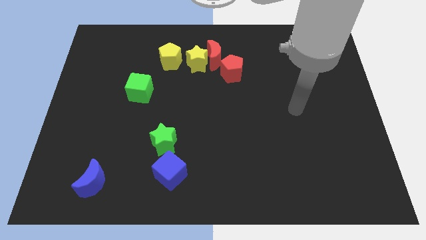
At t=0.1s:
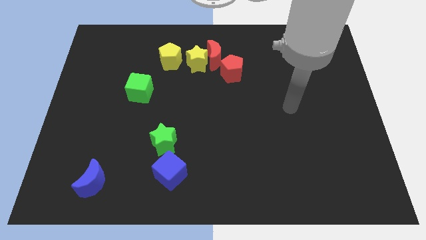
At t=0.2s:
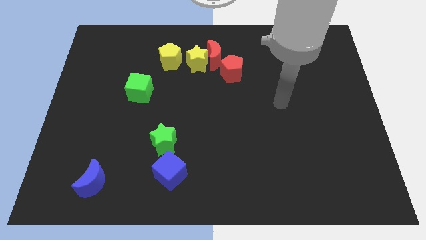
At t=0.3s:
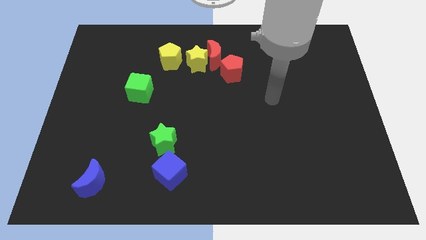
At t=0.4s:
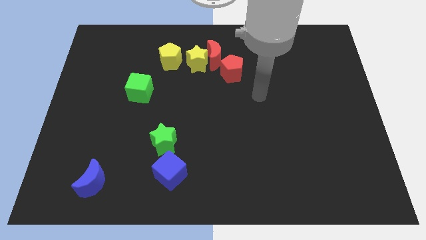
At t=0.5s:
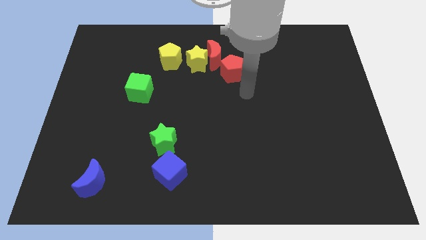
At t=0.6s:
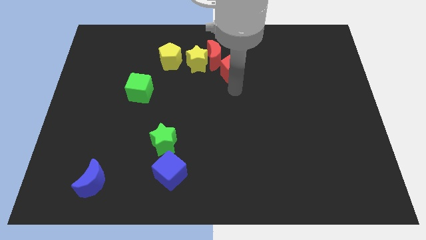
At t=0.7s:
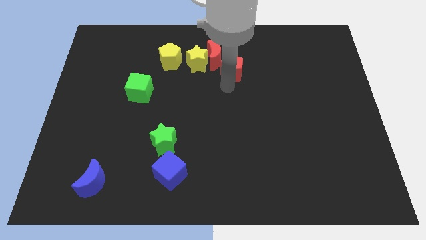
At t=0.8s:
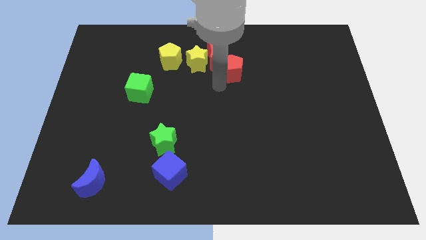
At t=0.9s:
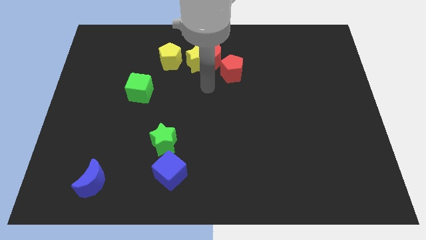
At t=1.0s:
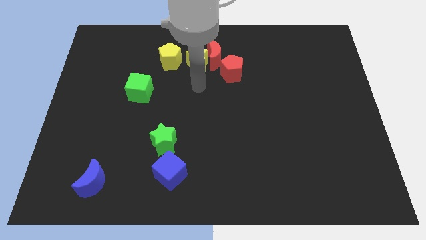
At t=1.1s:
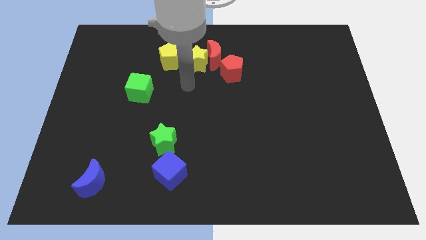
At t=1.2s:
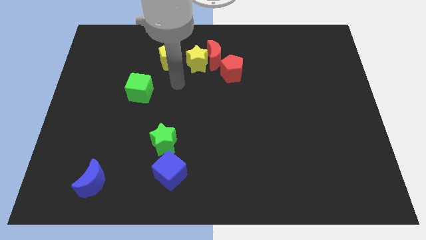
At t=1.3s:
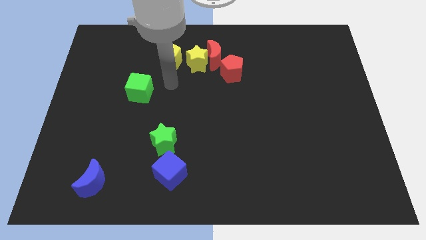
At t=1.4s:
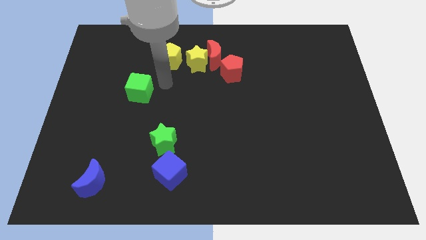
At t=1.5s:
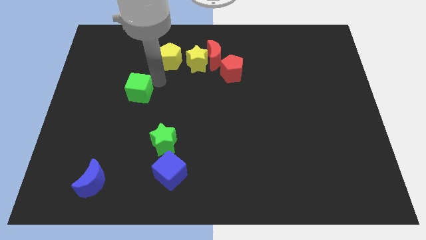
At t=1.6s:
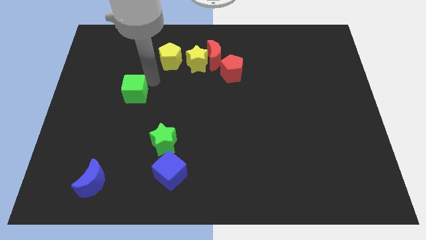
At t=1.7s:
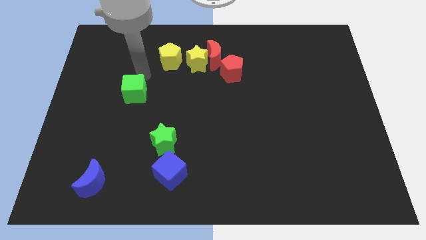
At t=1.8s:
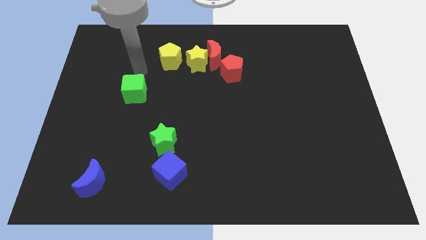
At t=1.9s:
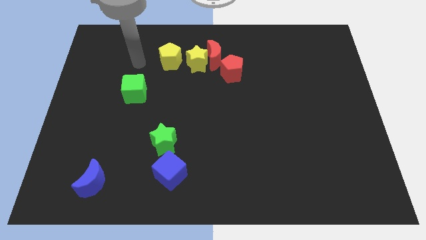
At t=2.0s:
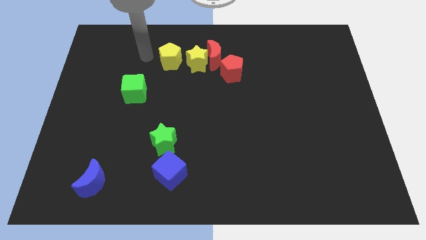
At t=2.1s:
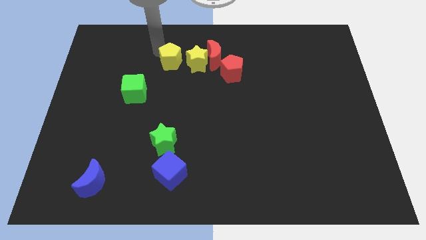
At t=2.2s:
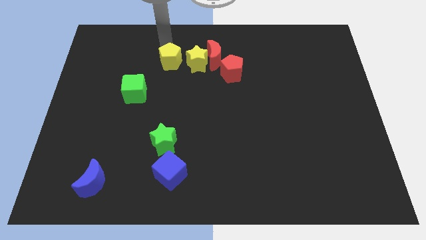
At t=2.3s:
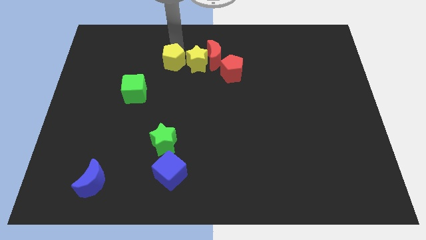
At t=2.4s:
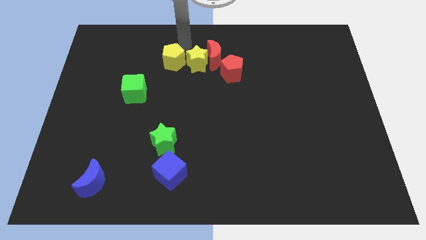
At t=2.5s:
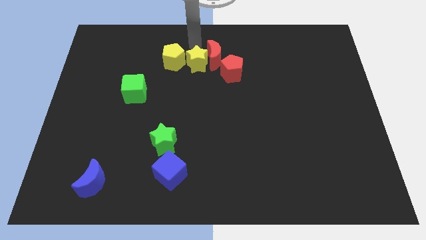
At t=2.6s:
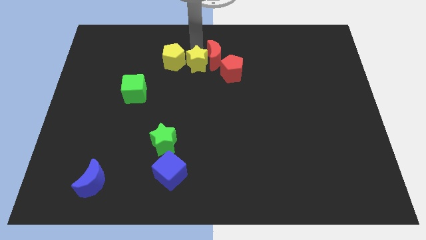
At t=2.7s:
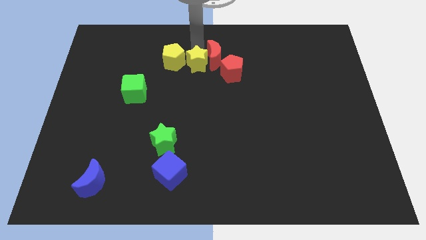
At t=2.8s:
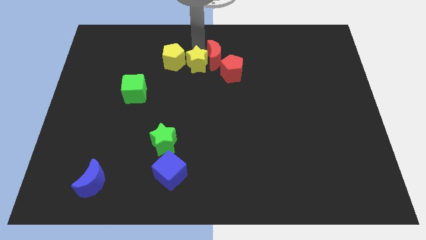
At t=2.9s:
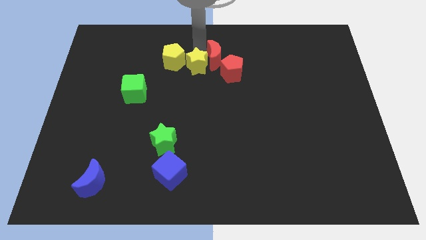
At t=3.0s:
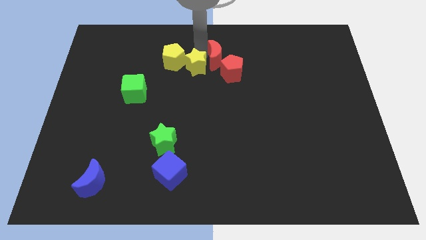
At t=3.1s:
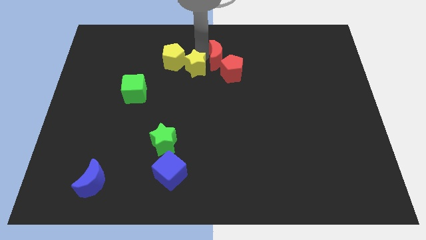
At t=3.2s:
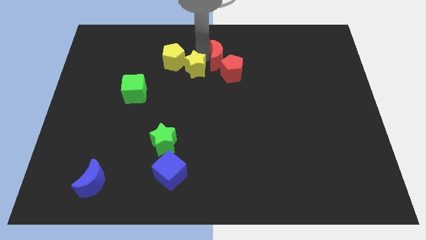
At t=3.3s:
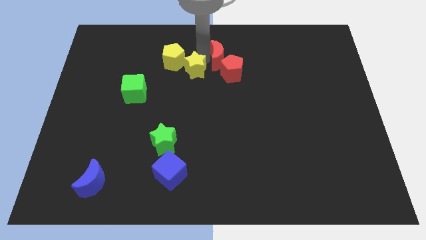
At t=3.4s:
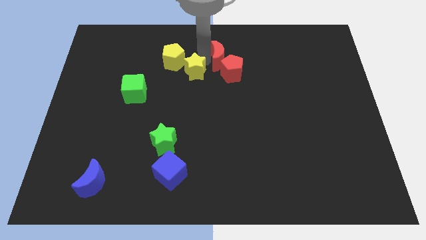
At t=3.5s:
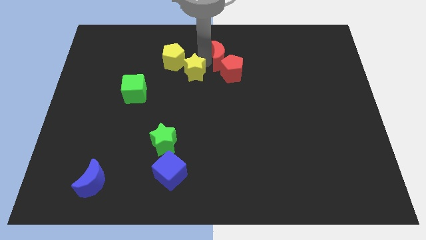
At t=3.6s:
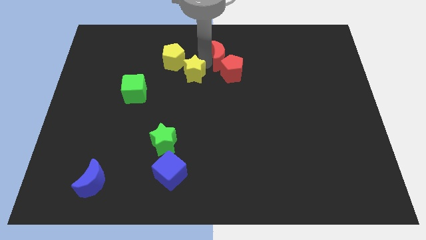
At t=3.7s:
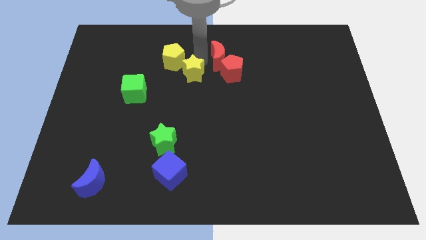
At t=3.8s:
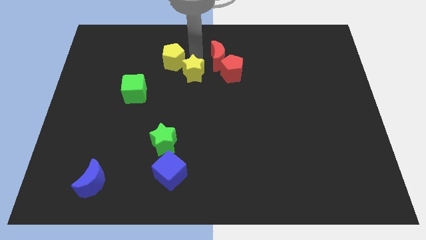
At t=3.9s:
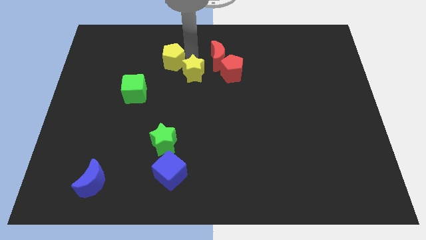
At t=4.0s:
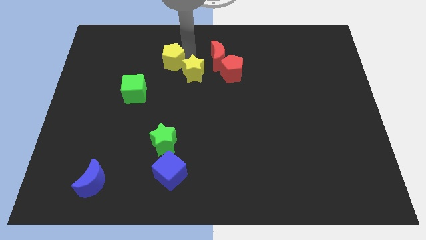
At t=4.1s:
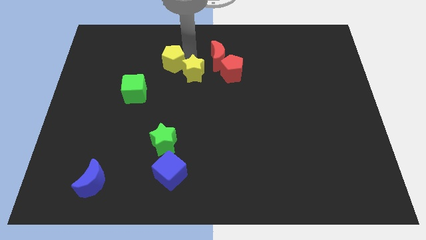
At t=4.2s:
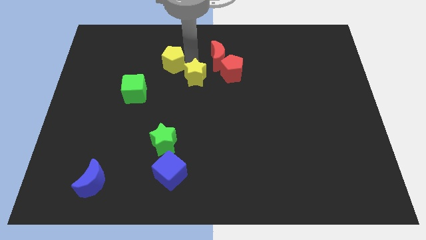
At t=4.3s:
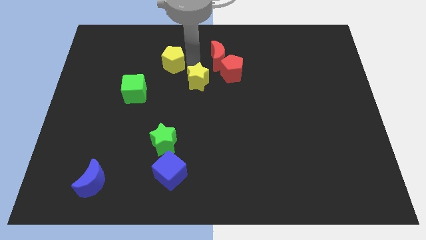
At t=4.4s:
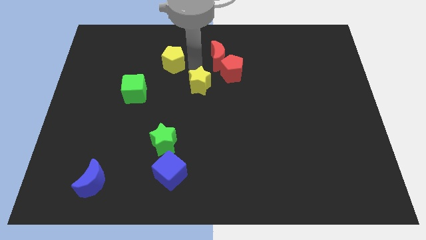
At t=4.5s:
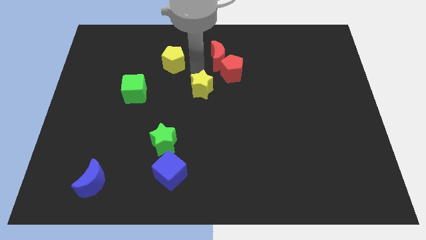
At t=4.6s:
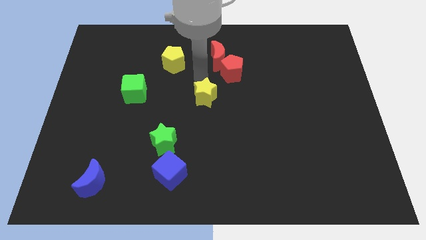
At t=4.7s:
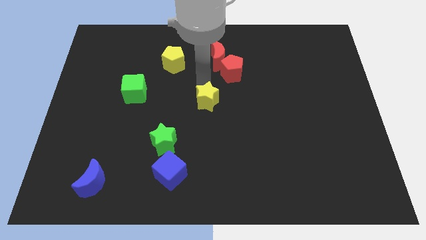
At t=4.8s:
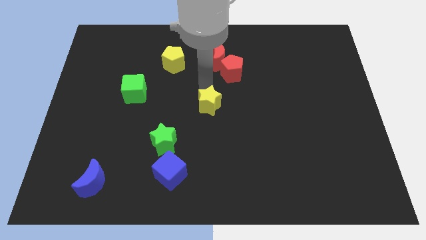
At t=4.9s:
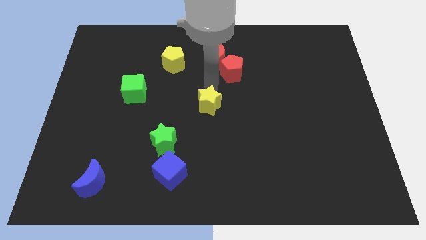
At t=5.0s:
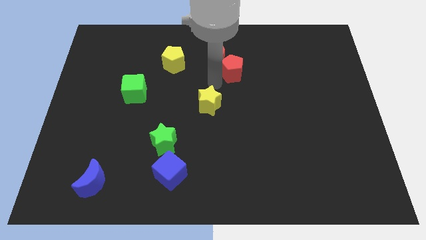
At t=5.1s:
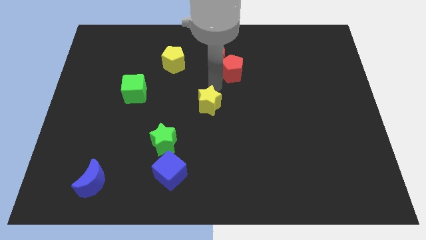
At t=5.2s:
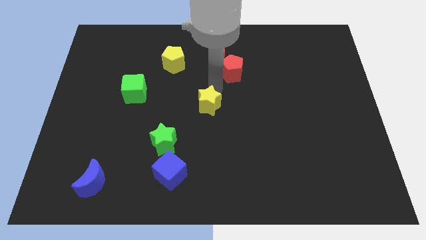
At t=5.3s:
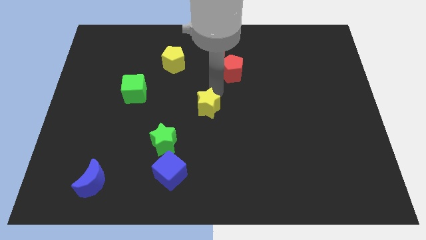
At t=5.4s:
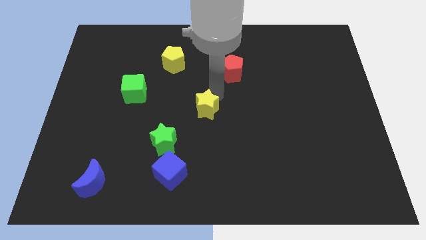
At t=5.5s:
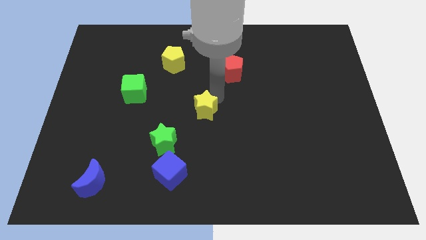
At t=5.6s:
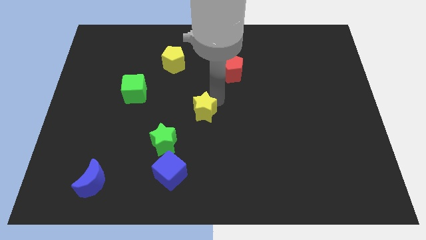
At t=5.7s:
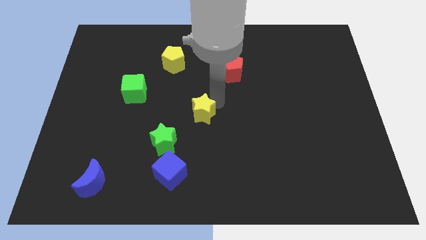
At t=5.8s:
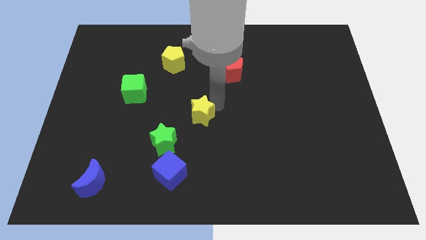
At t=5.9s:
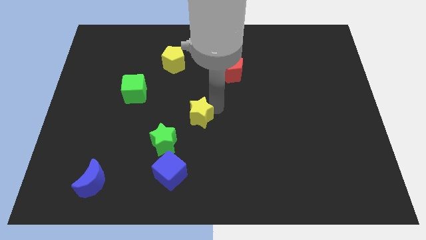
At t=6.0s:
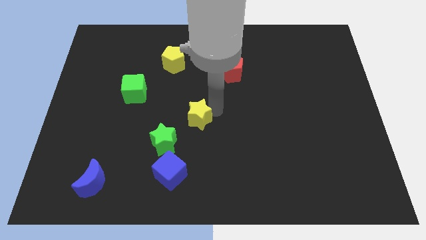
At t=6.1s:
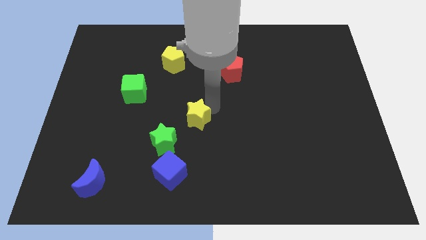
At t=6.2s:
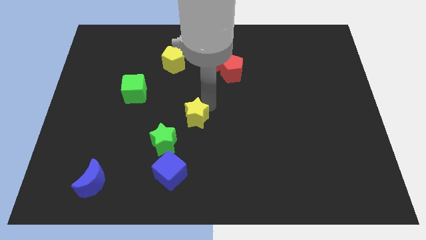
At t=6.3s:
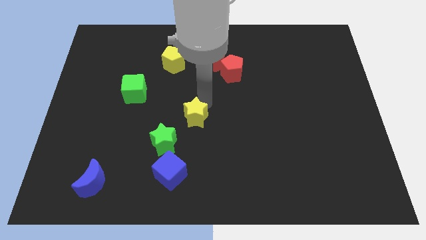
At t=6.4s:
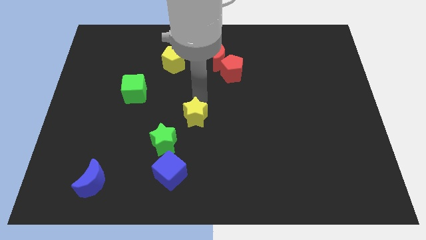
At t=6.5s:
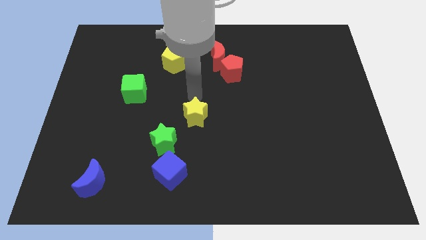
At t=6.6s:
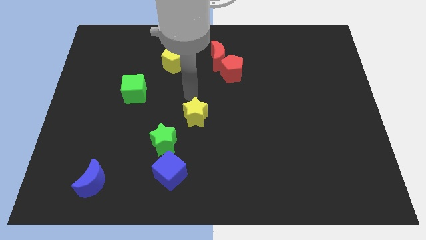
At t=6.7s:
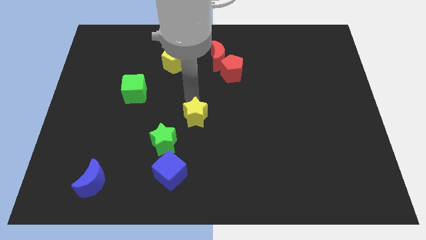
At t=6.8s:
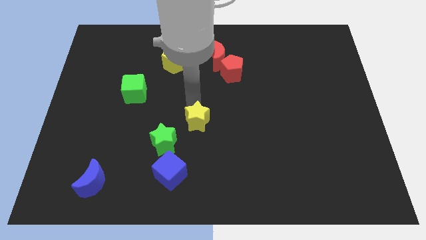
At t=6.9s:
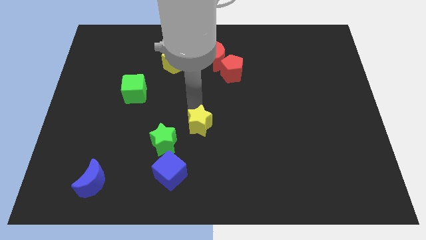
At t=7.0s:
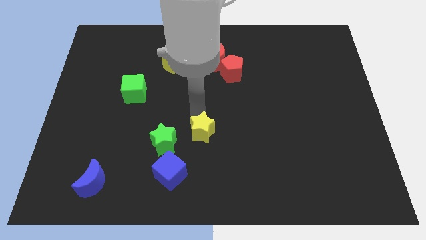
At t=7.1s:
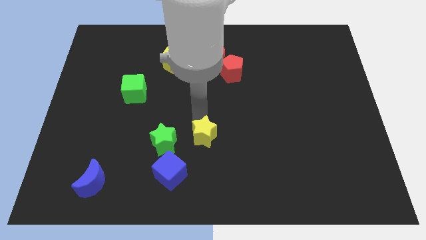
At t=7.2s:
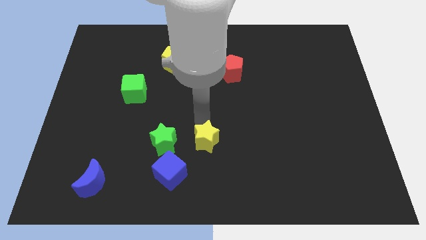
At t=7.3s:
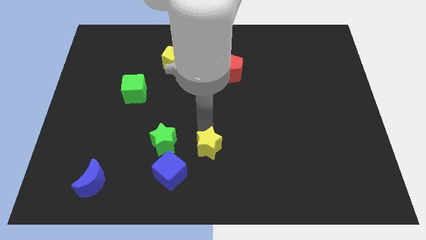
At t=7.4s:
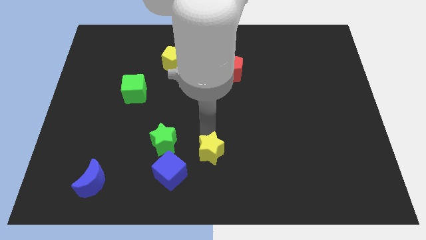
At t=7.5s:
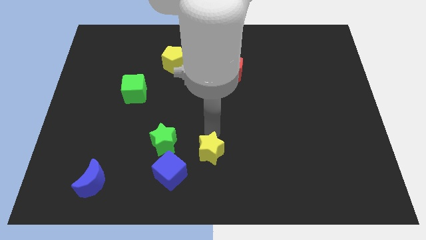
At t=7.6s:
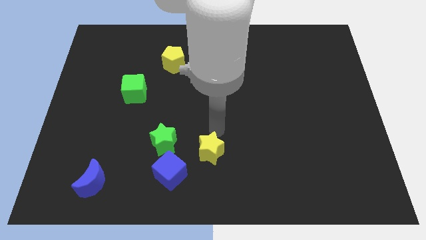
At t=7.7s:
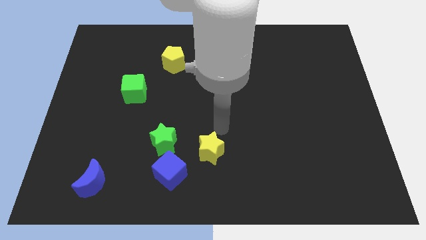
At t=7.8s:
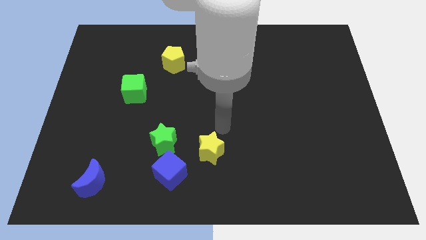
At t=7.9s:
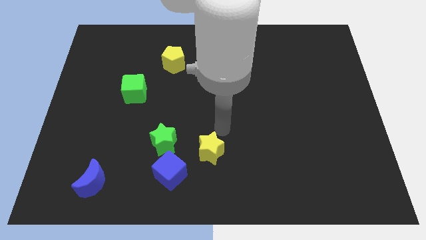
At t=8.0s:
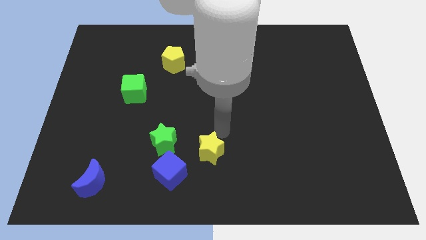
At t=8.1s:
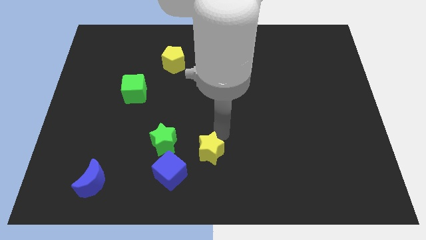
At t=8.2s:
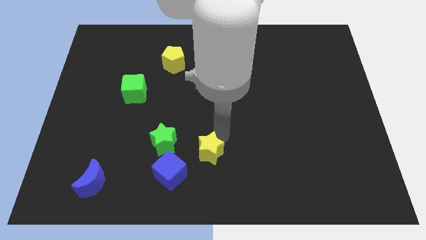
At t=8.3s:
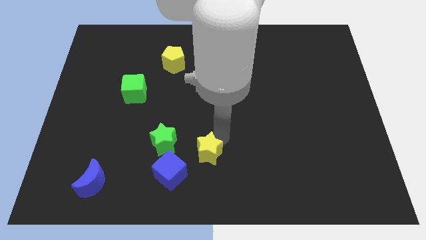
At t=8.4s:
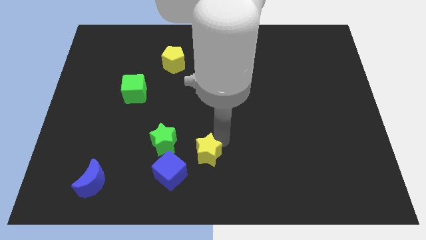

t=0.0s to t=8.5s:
move the yellow star to the bottom
